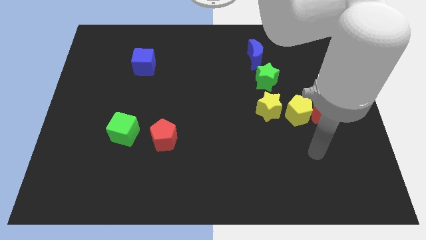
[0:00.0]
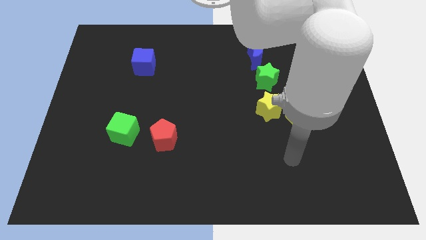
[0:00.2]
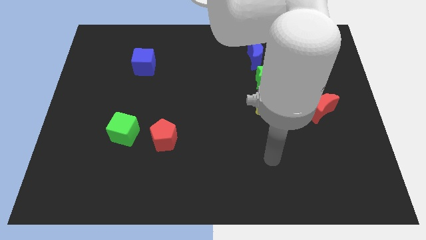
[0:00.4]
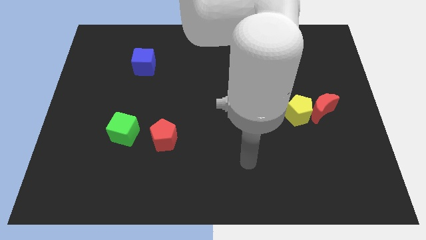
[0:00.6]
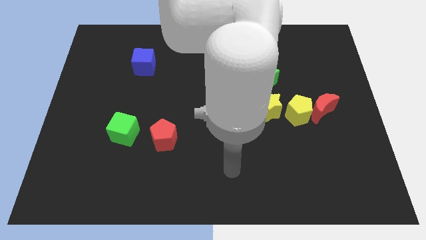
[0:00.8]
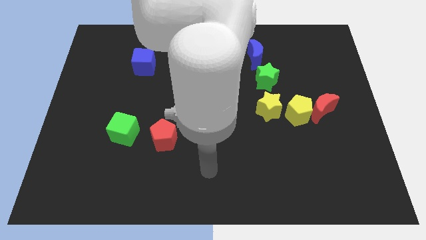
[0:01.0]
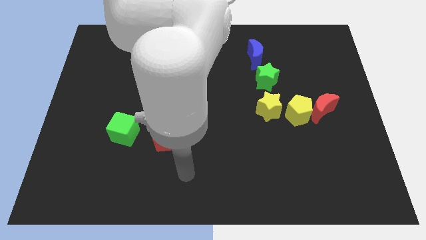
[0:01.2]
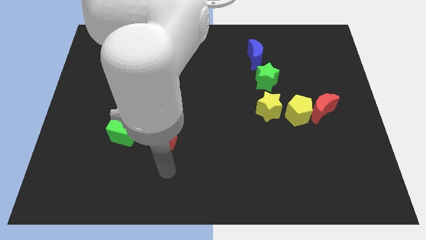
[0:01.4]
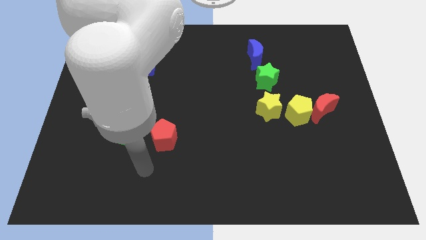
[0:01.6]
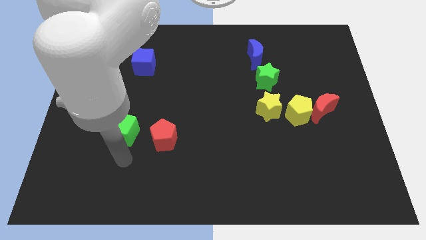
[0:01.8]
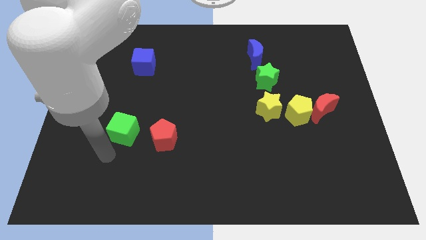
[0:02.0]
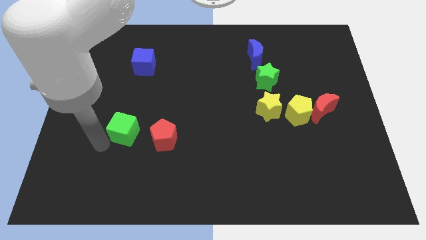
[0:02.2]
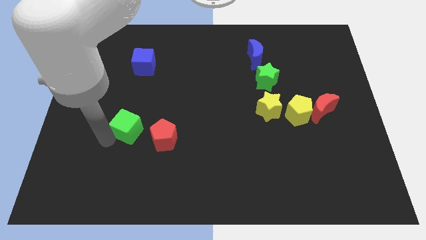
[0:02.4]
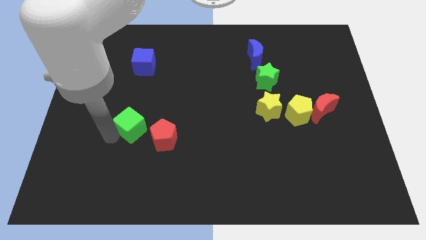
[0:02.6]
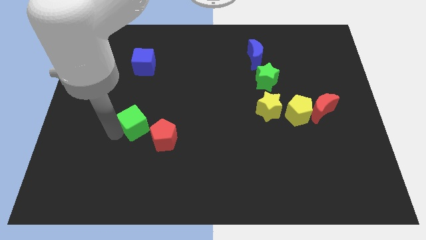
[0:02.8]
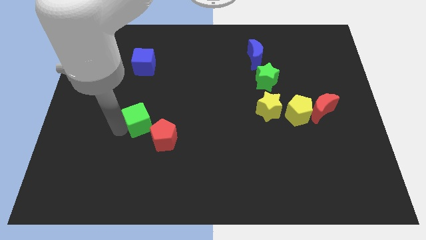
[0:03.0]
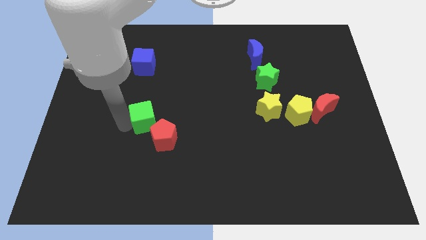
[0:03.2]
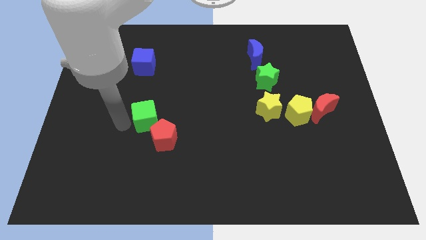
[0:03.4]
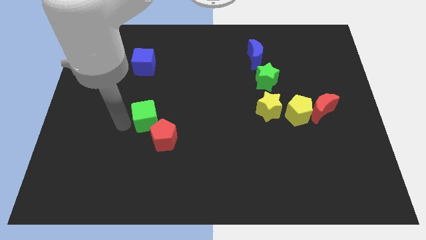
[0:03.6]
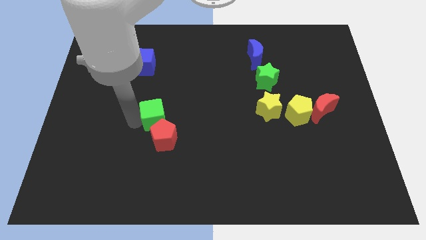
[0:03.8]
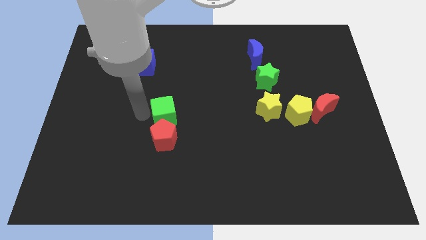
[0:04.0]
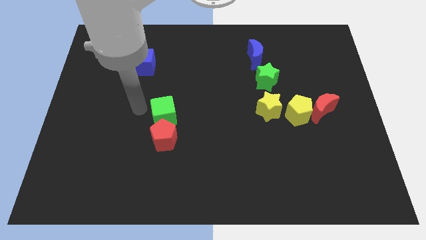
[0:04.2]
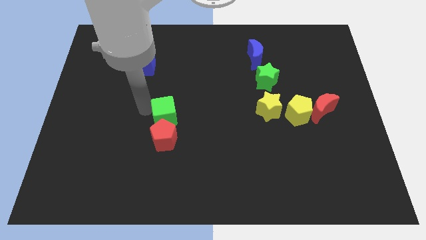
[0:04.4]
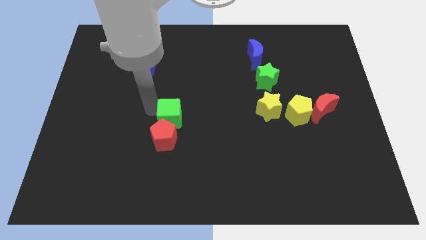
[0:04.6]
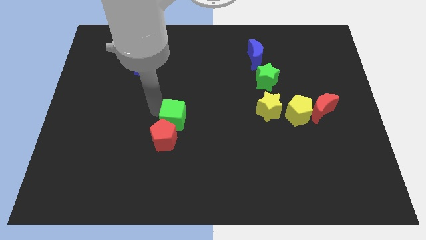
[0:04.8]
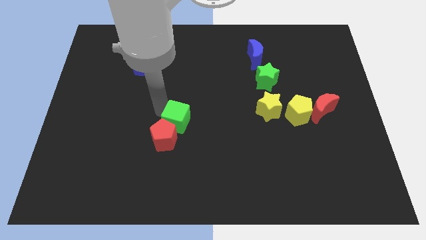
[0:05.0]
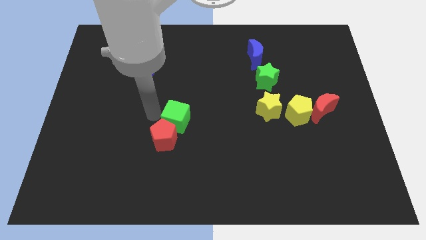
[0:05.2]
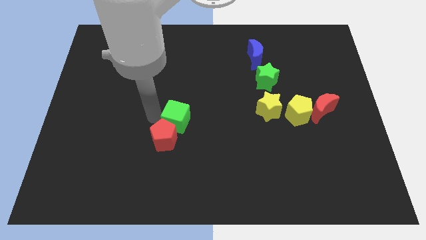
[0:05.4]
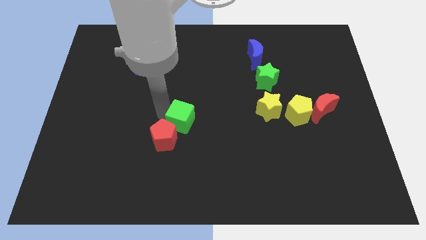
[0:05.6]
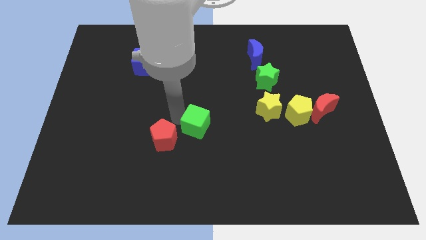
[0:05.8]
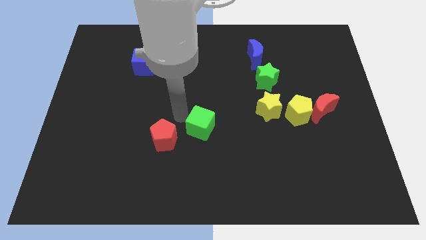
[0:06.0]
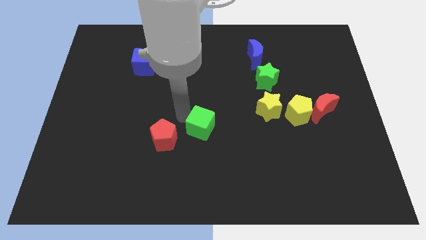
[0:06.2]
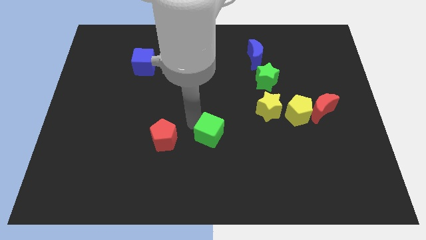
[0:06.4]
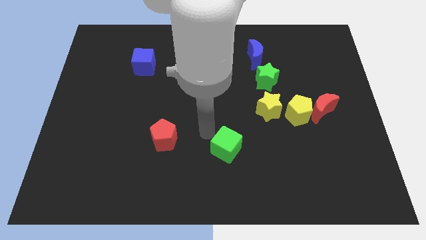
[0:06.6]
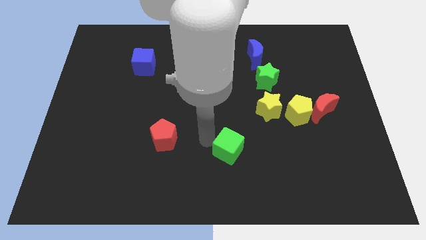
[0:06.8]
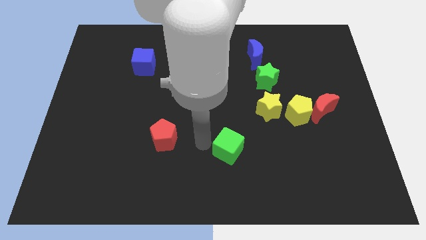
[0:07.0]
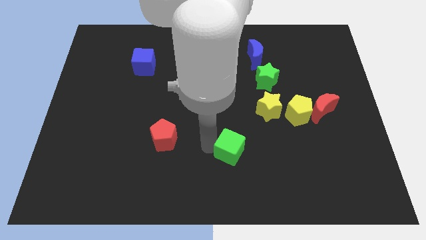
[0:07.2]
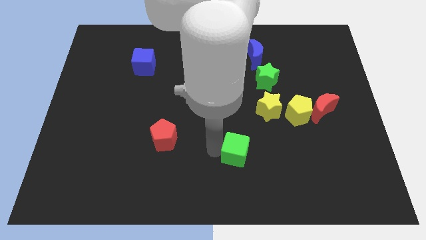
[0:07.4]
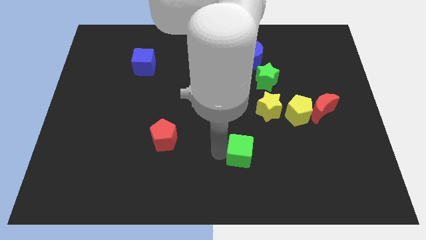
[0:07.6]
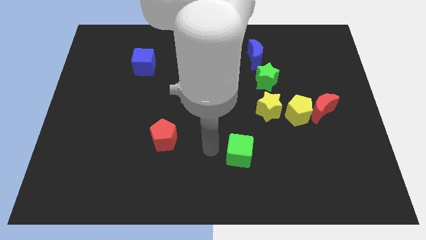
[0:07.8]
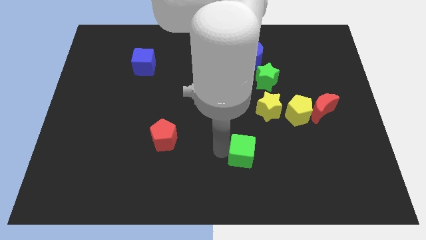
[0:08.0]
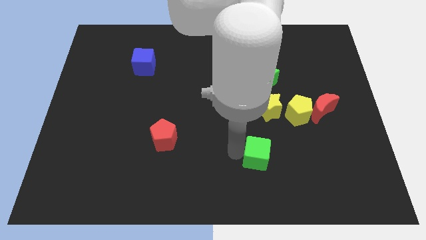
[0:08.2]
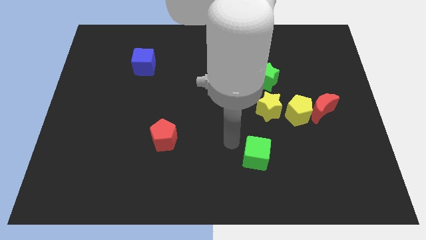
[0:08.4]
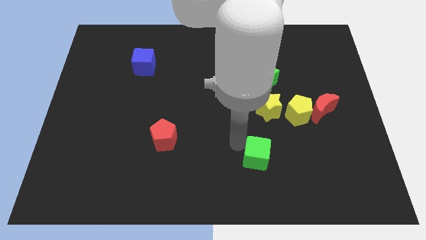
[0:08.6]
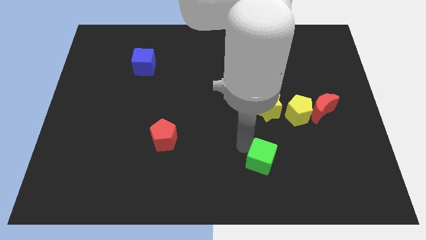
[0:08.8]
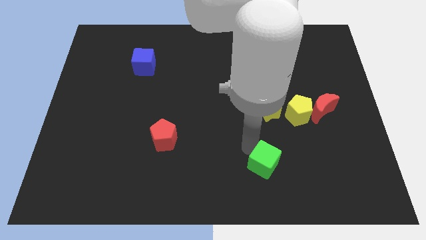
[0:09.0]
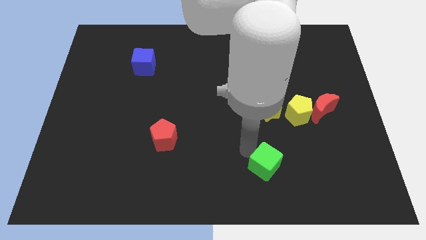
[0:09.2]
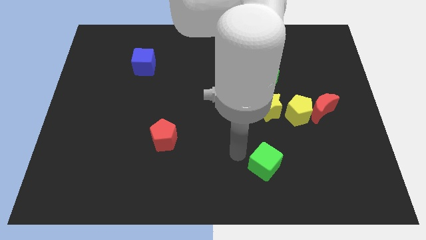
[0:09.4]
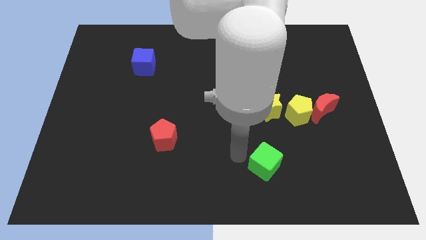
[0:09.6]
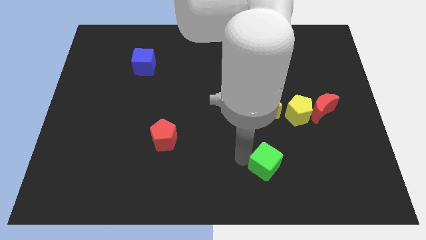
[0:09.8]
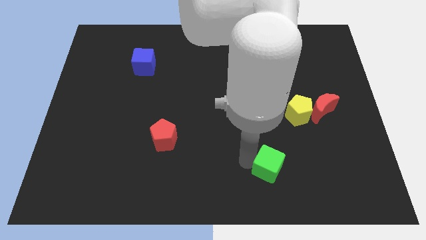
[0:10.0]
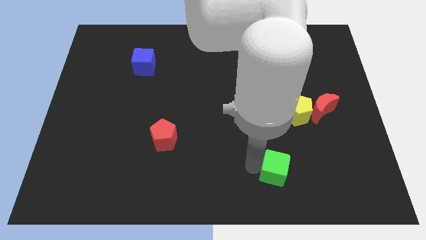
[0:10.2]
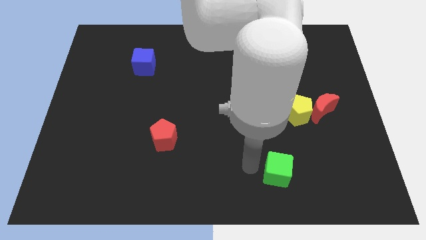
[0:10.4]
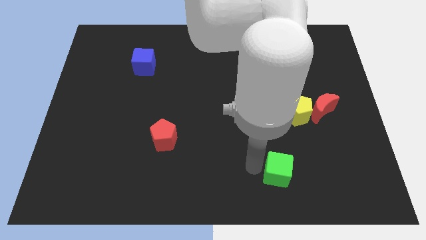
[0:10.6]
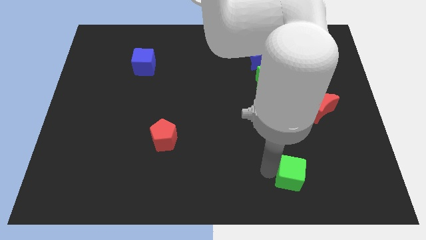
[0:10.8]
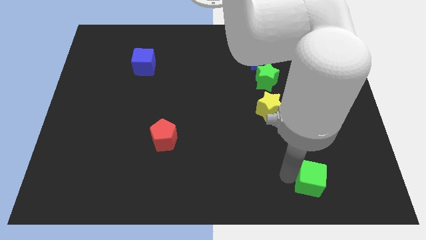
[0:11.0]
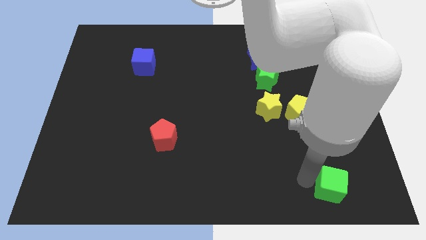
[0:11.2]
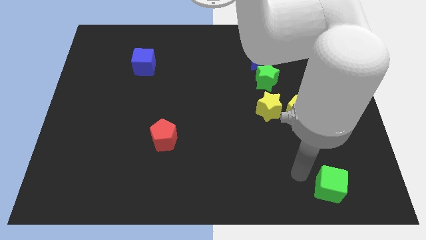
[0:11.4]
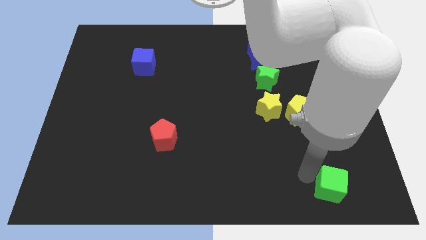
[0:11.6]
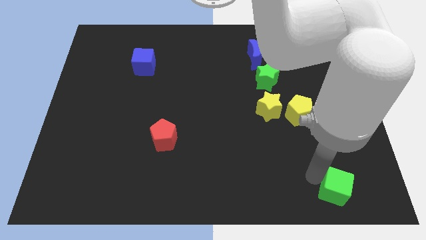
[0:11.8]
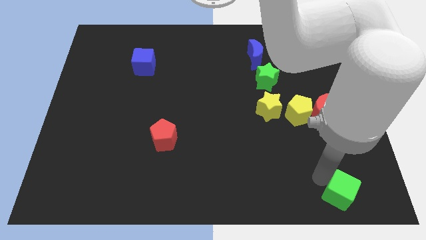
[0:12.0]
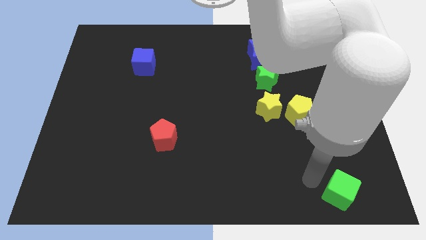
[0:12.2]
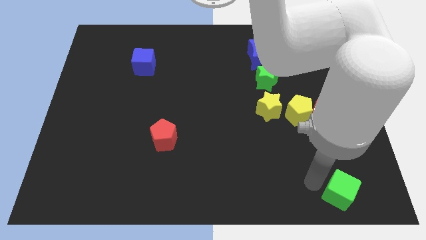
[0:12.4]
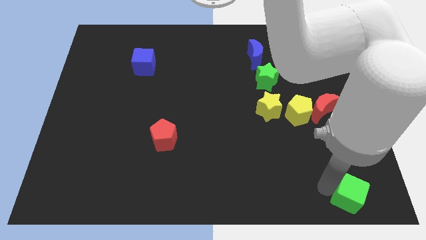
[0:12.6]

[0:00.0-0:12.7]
put the green cube to the bottom right of the board
